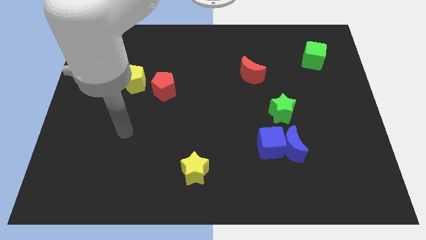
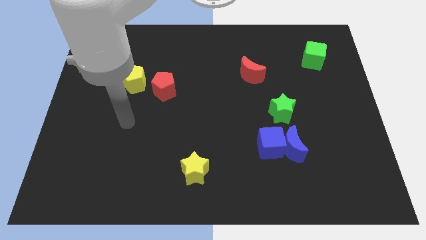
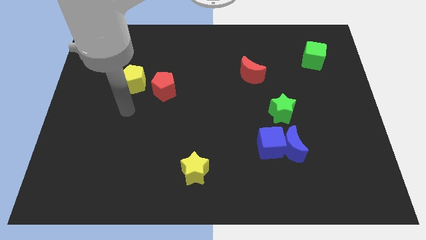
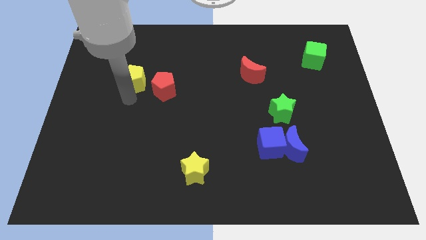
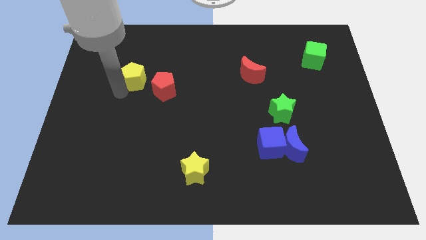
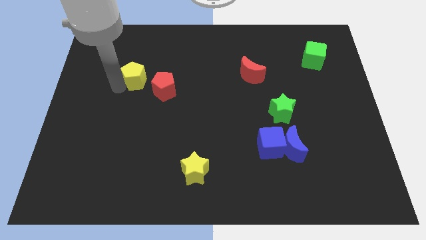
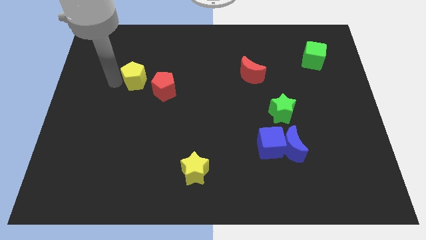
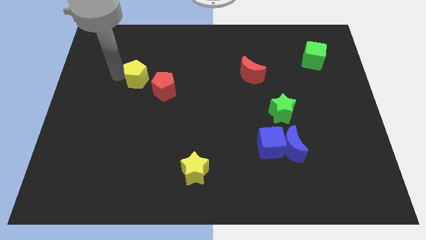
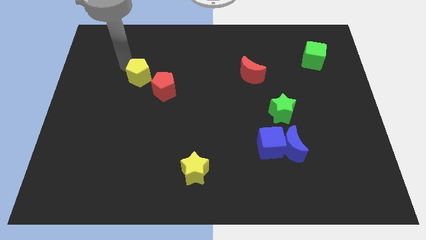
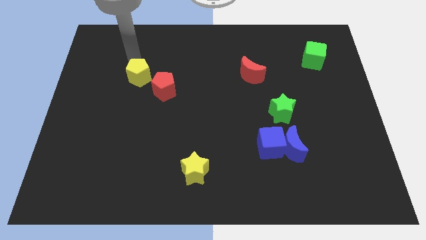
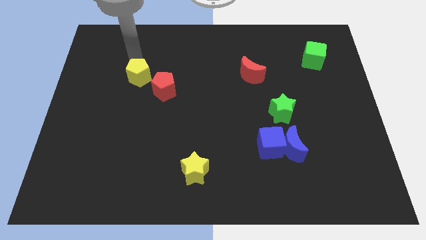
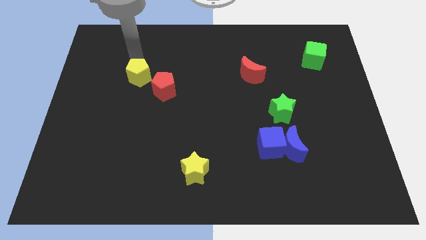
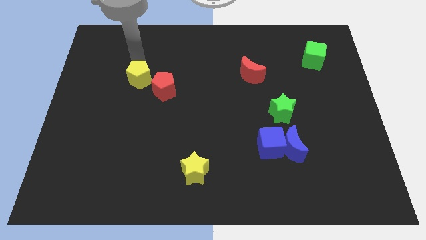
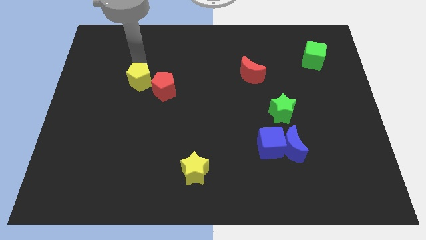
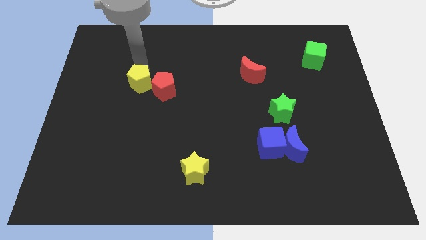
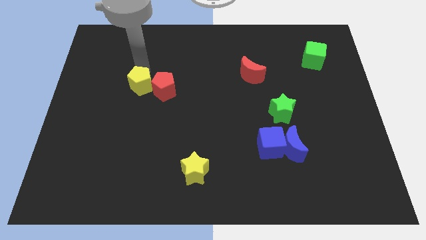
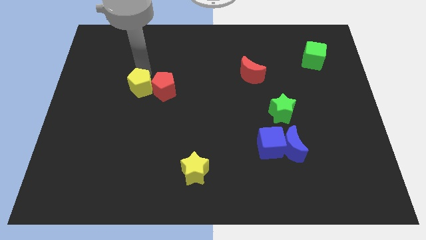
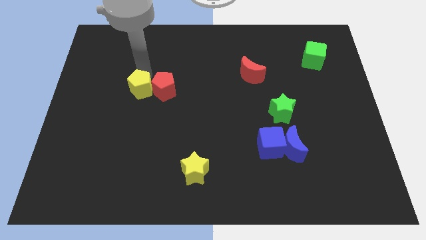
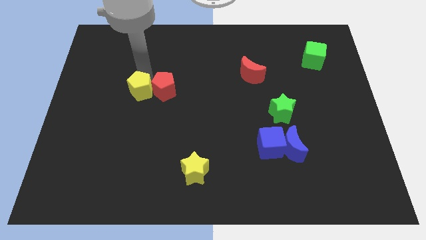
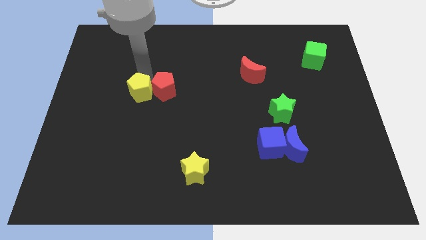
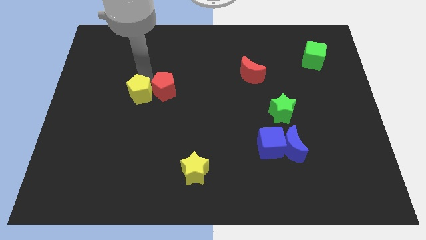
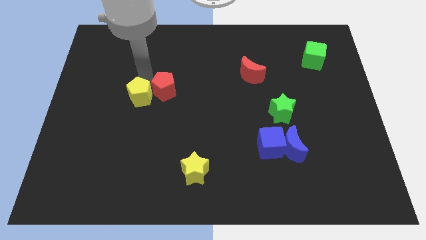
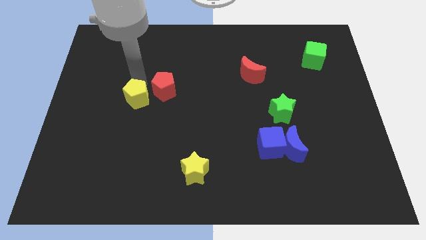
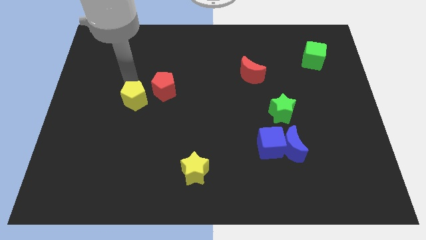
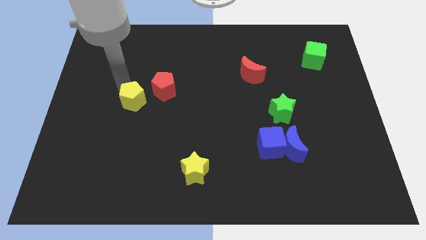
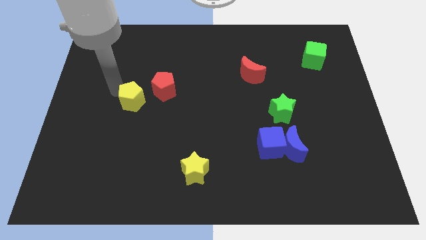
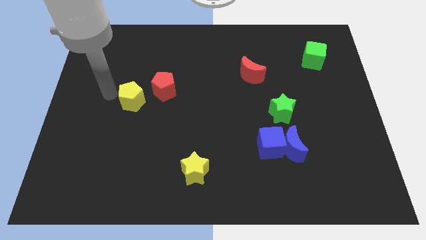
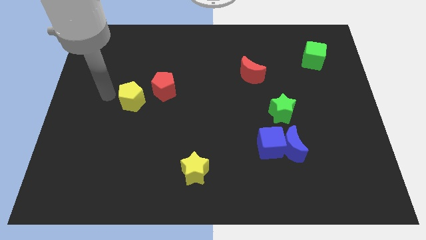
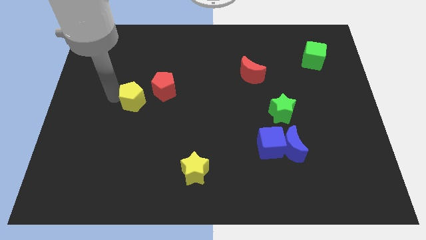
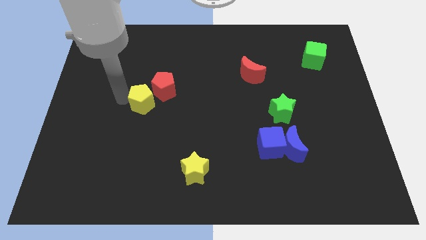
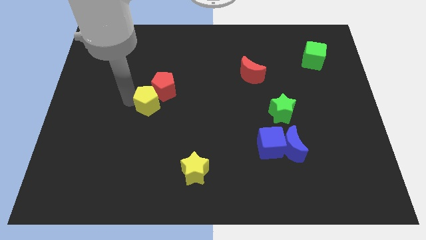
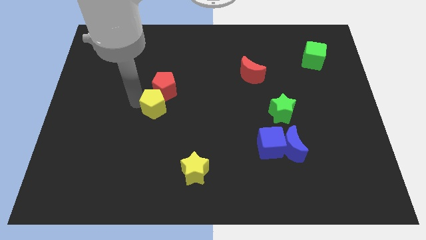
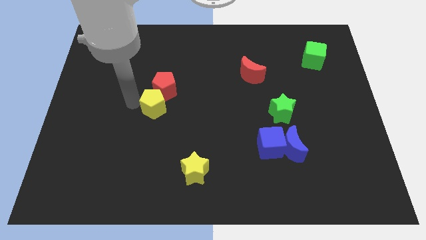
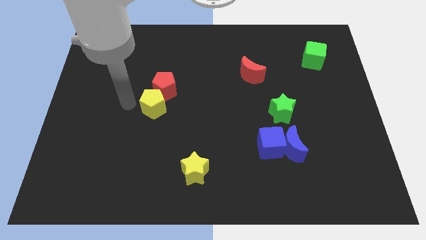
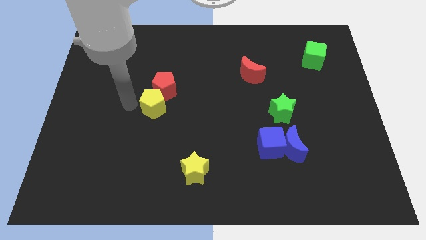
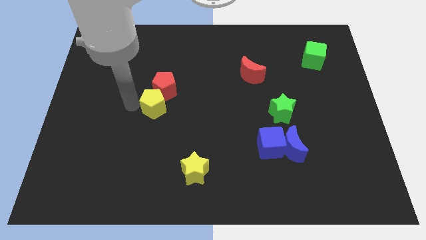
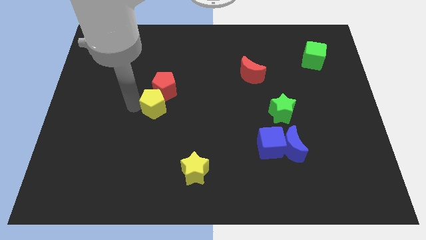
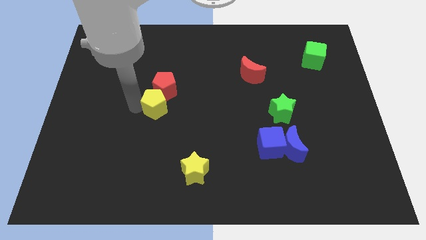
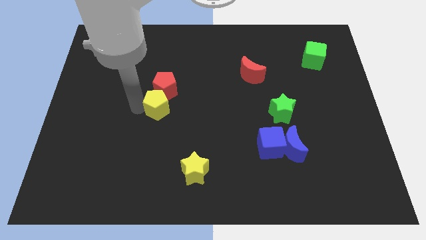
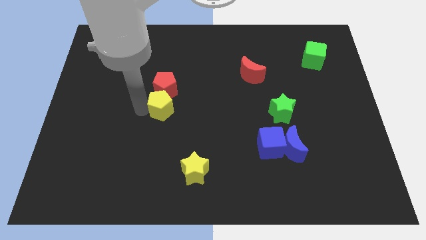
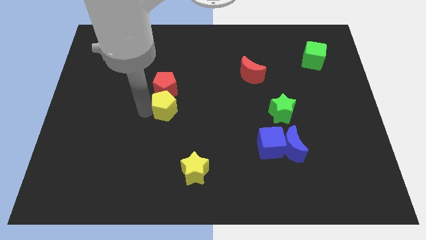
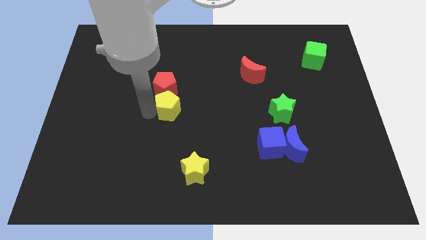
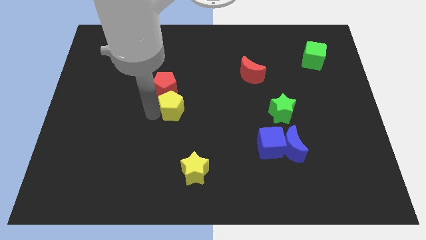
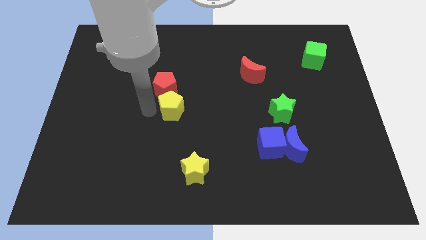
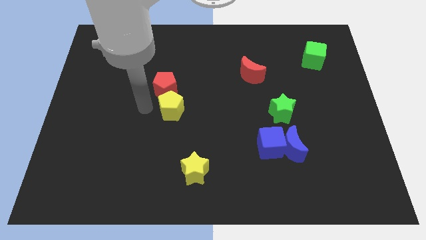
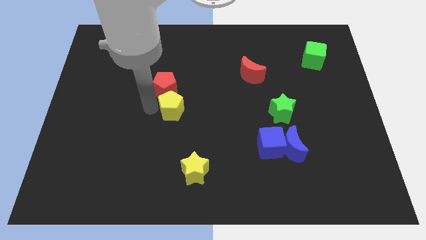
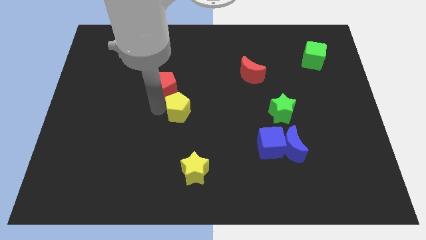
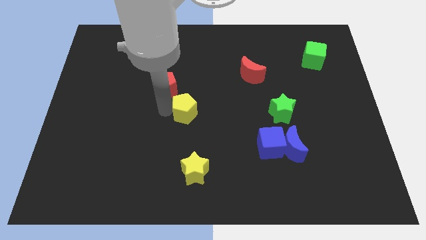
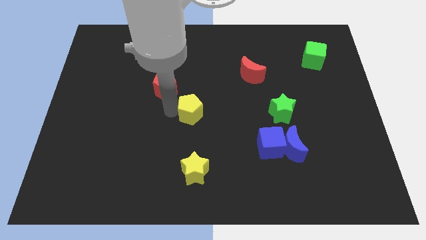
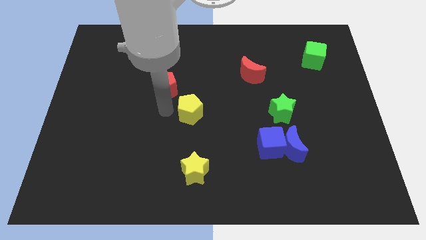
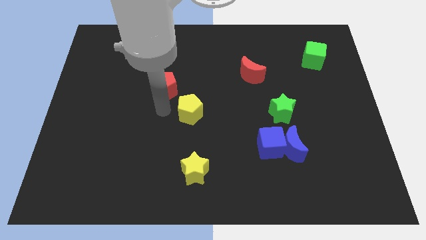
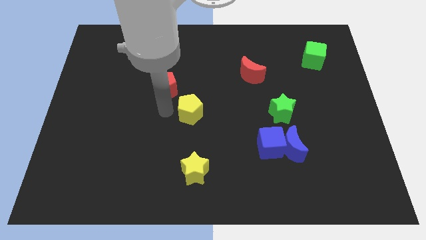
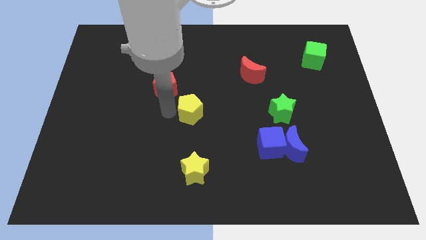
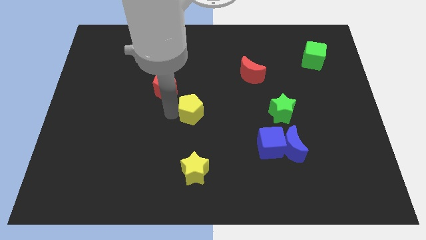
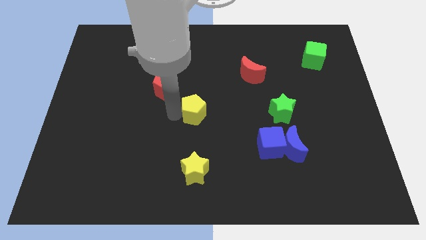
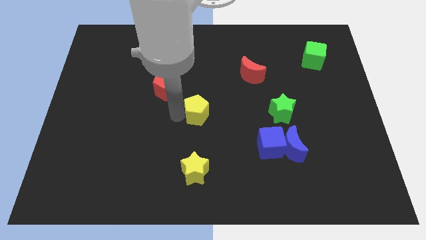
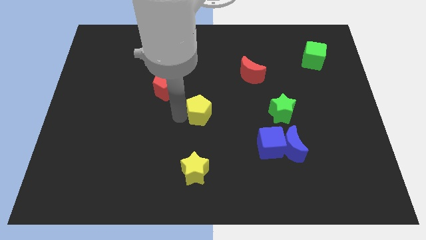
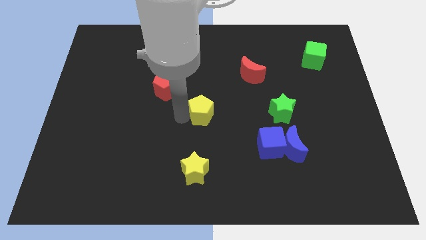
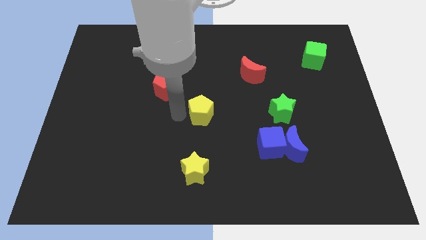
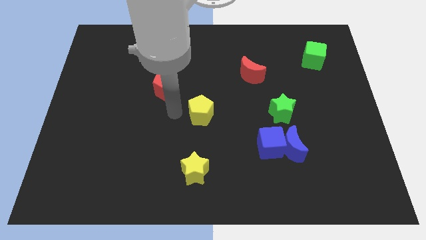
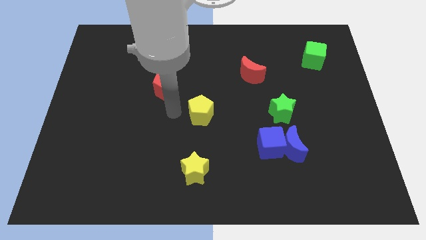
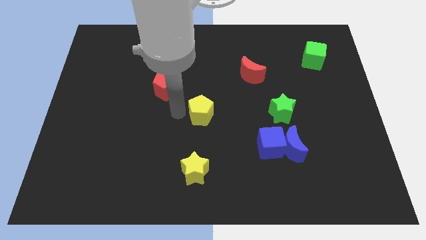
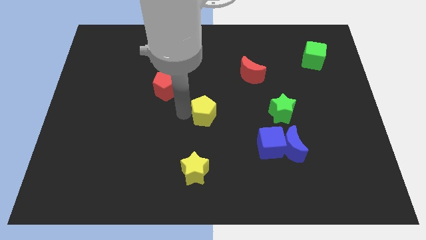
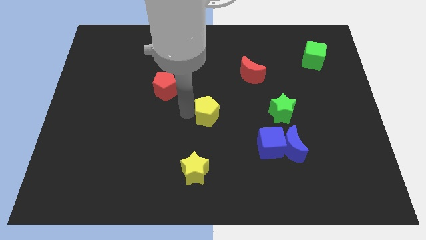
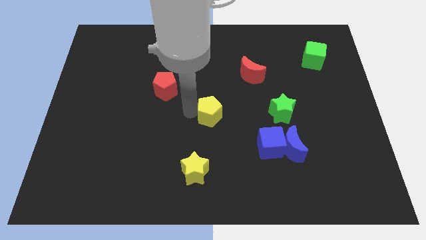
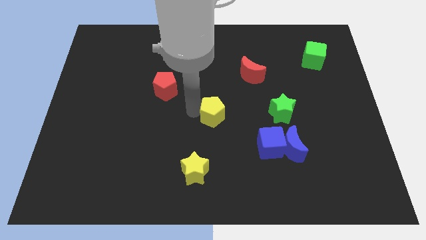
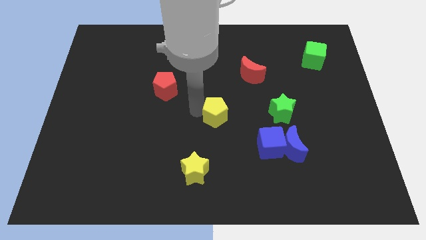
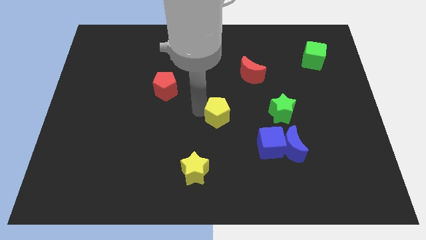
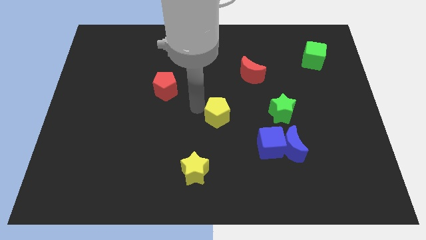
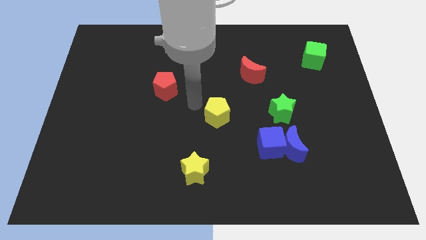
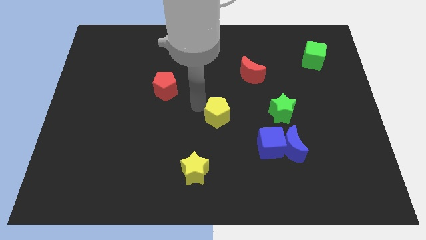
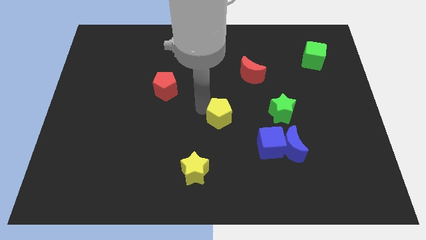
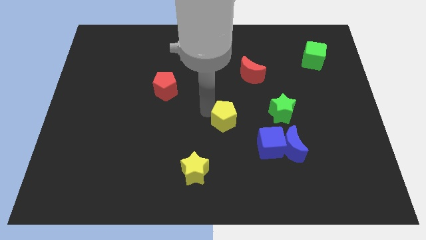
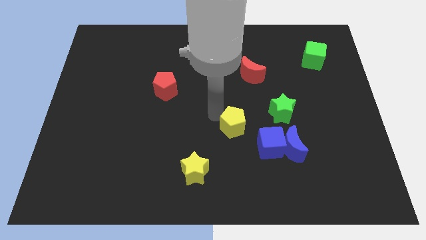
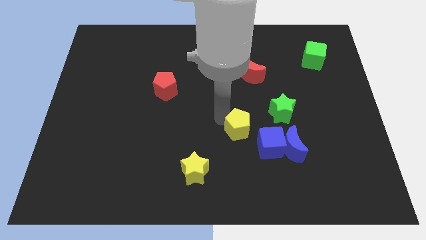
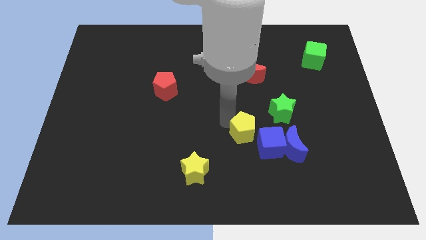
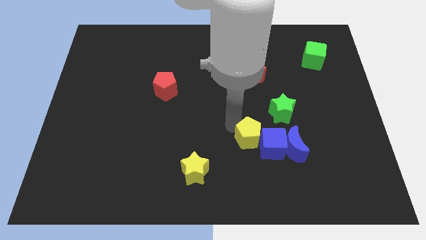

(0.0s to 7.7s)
push the yellow pentagon next to the blue cube
